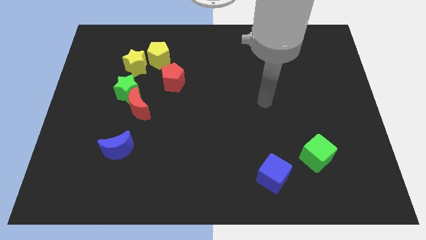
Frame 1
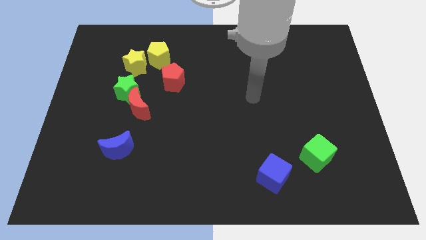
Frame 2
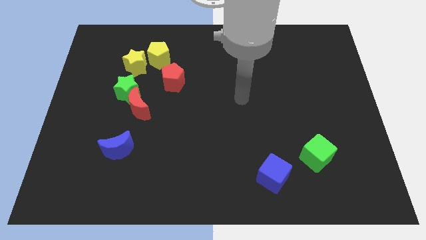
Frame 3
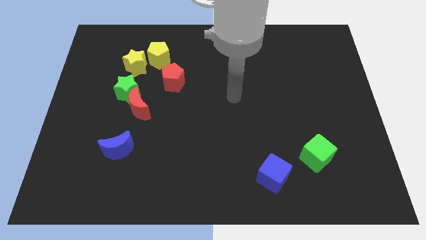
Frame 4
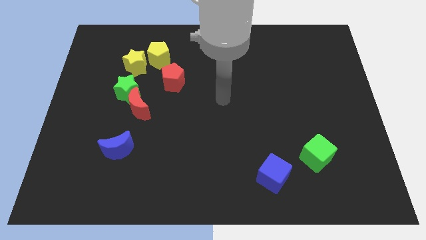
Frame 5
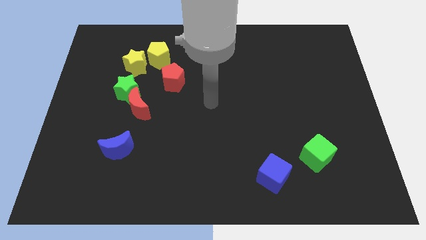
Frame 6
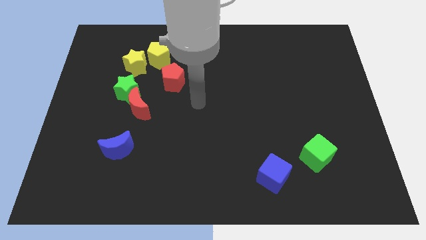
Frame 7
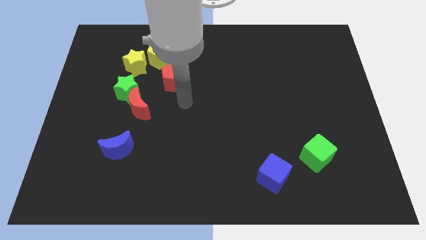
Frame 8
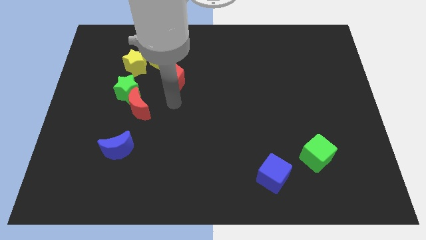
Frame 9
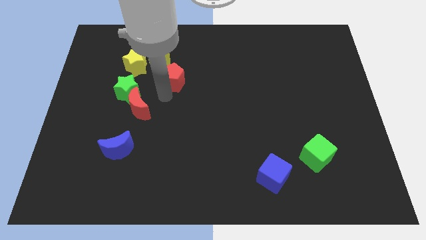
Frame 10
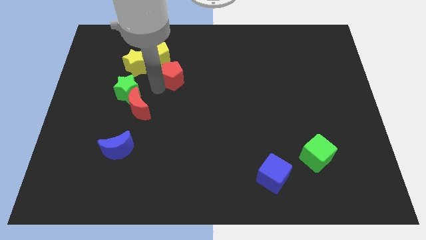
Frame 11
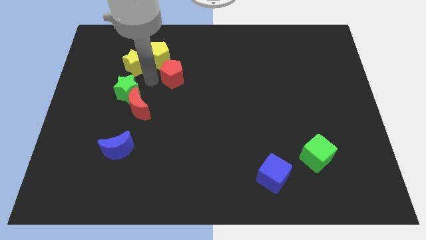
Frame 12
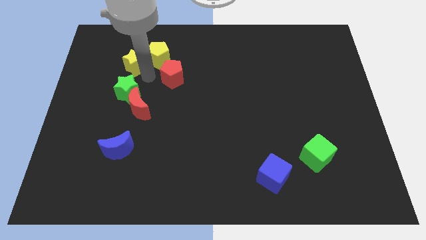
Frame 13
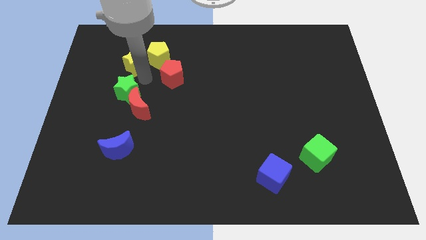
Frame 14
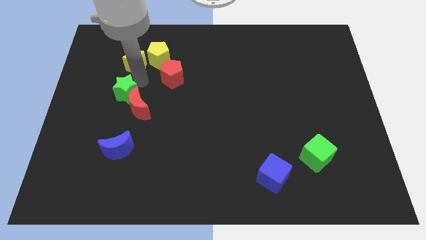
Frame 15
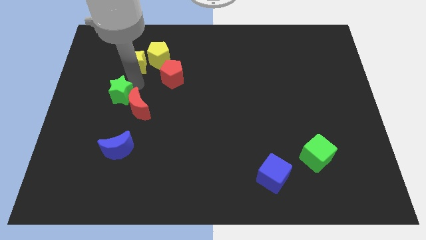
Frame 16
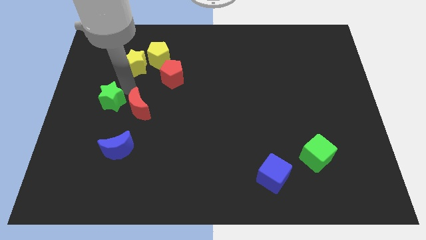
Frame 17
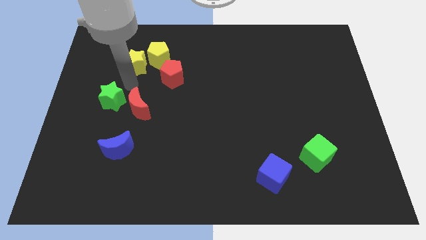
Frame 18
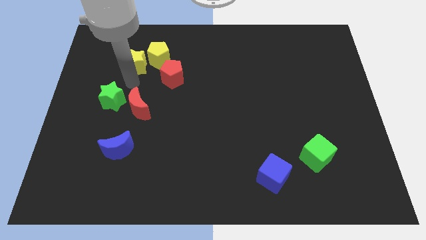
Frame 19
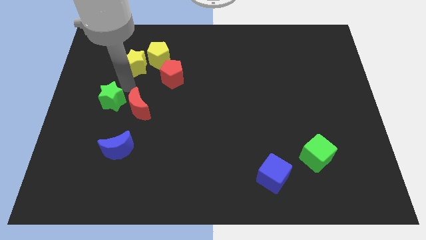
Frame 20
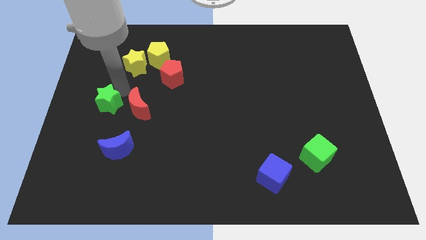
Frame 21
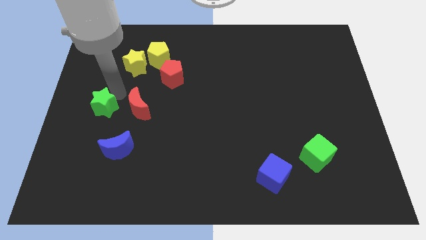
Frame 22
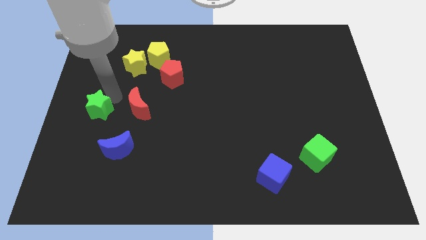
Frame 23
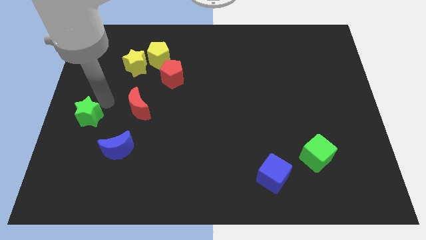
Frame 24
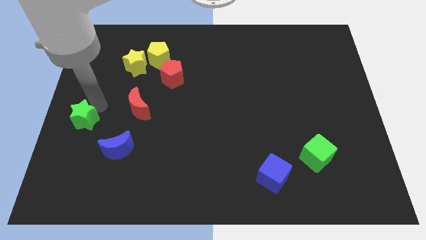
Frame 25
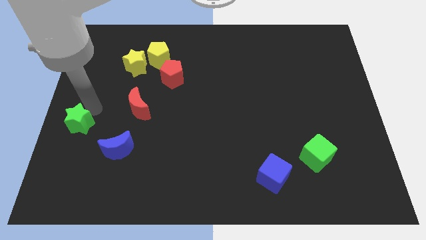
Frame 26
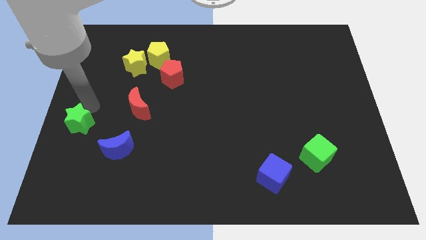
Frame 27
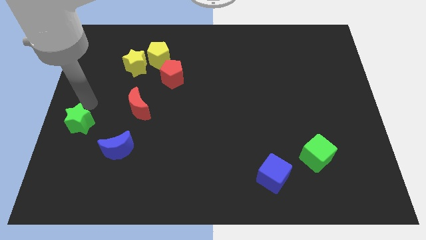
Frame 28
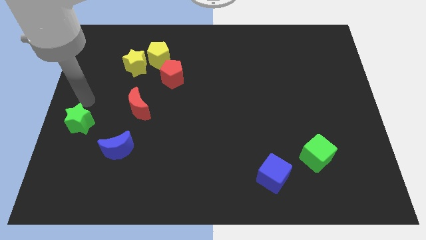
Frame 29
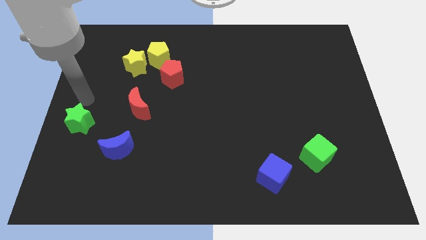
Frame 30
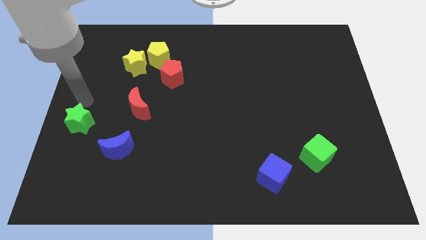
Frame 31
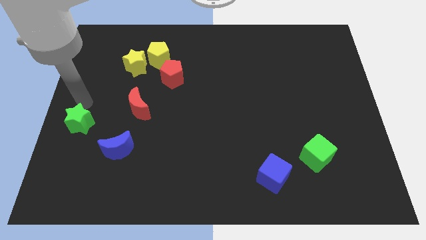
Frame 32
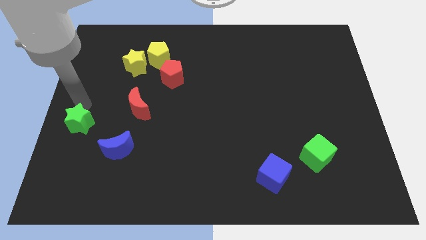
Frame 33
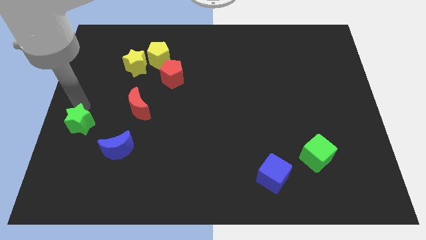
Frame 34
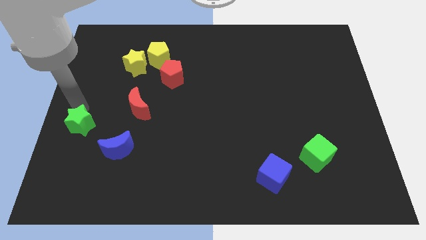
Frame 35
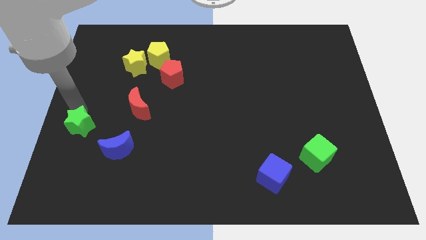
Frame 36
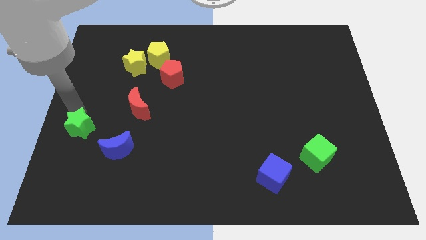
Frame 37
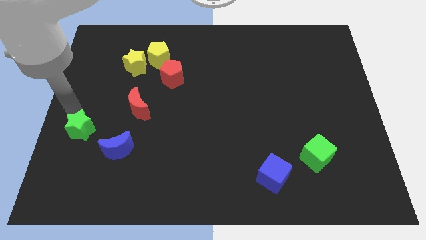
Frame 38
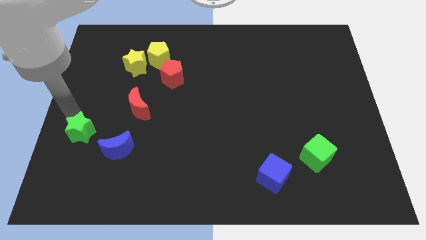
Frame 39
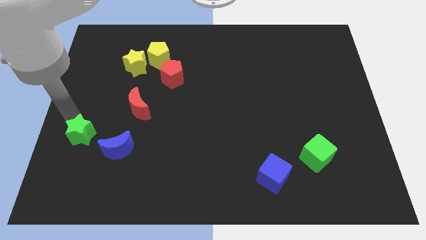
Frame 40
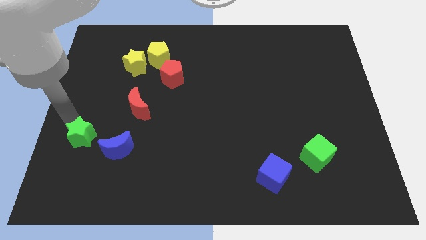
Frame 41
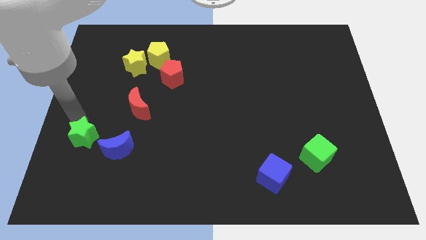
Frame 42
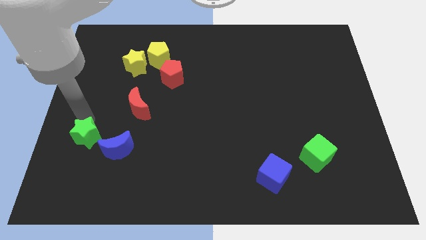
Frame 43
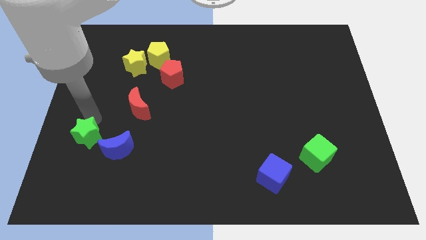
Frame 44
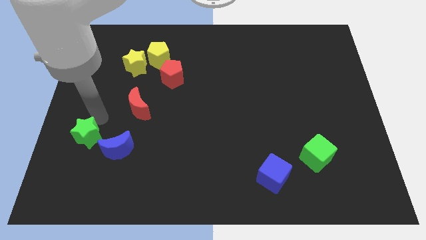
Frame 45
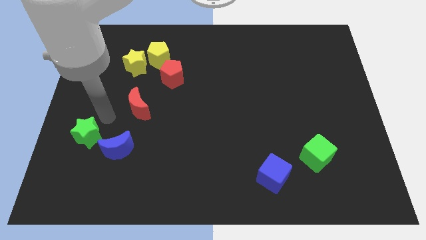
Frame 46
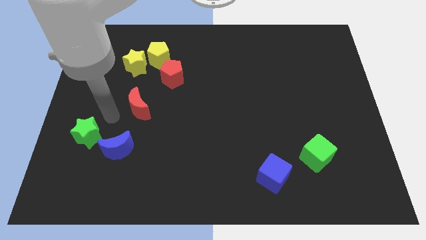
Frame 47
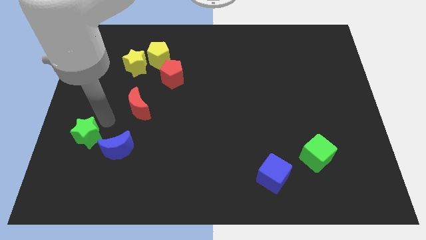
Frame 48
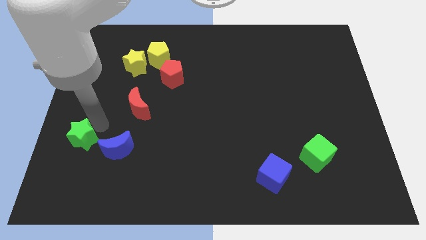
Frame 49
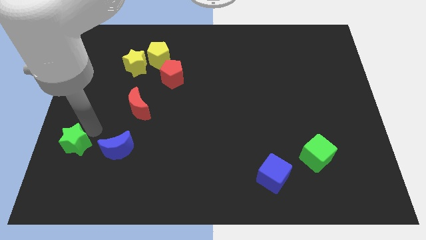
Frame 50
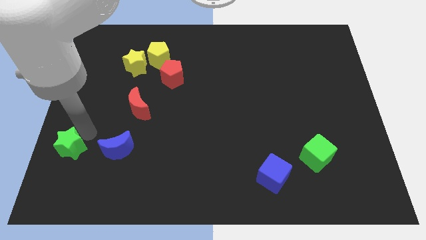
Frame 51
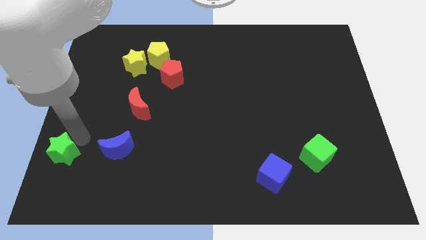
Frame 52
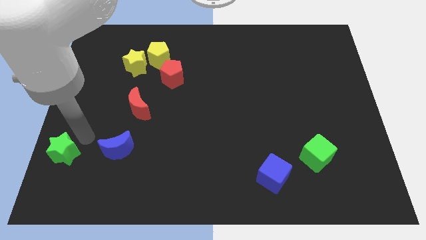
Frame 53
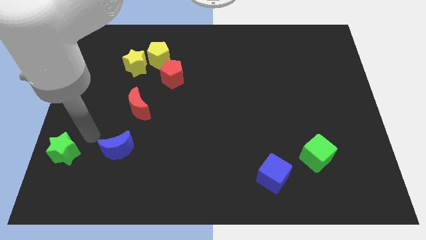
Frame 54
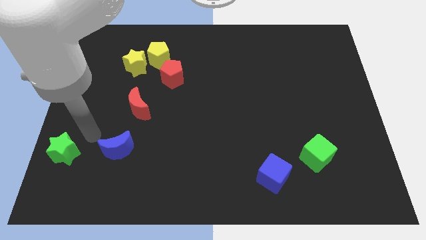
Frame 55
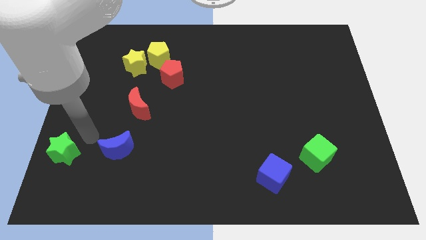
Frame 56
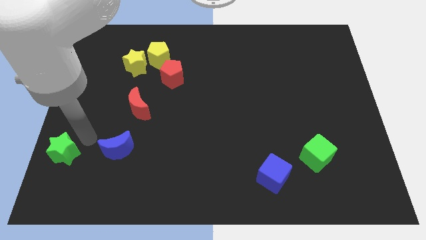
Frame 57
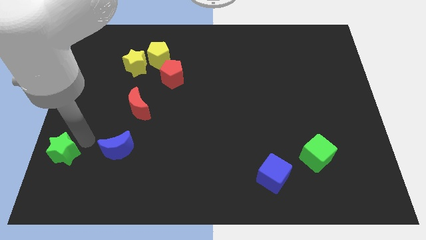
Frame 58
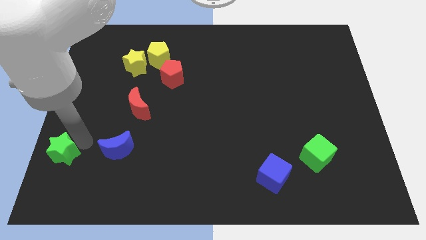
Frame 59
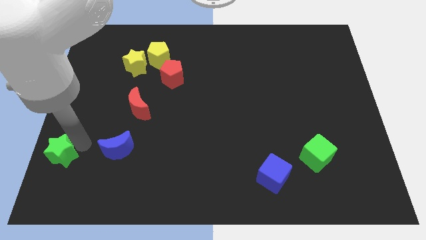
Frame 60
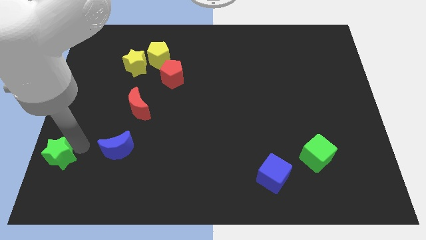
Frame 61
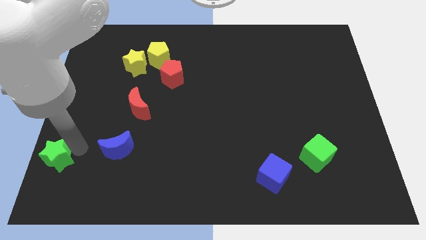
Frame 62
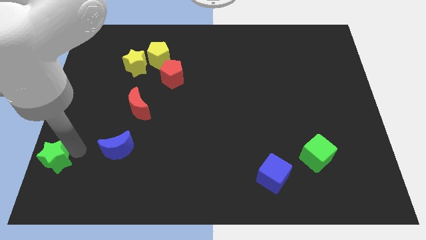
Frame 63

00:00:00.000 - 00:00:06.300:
put the green star to the bottom left corner
